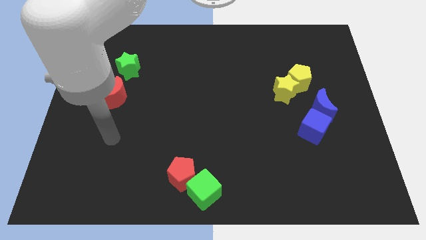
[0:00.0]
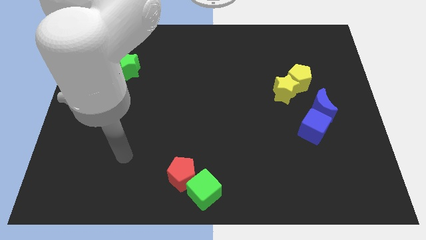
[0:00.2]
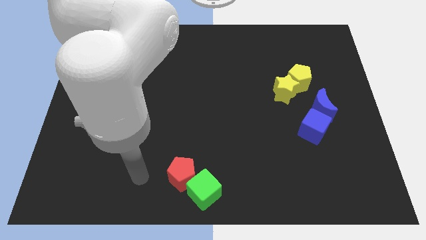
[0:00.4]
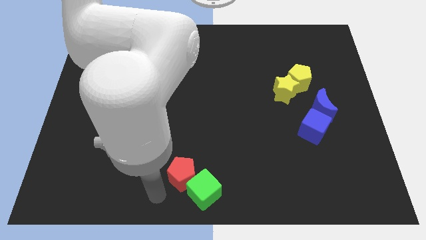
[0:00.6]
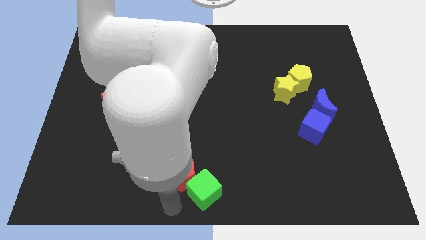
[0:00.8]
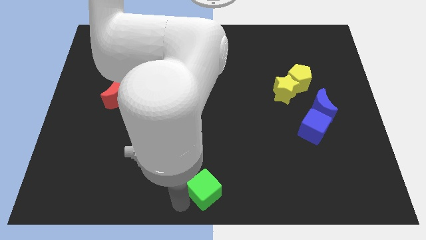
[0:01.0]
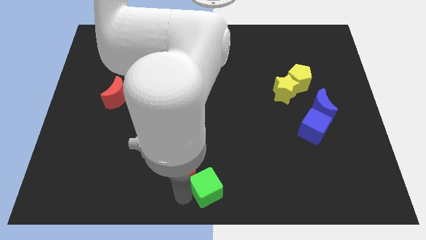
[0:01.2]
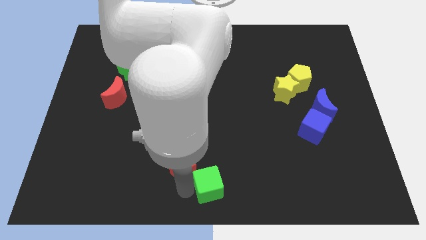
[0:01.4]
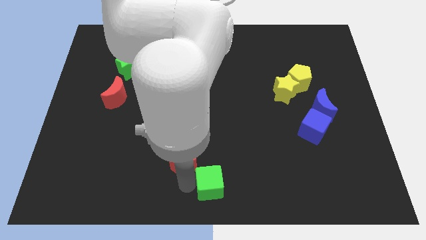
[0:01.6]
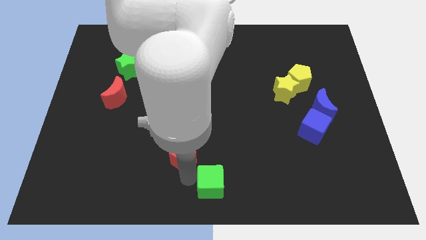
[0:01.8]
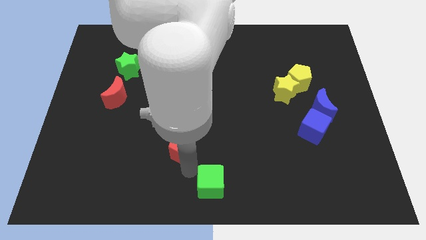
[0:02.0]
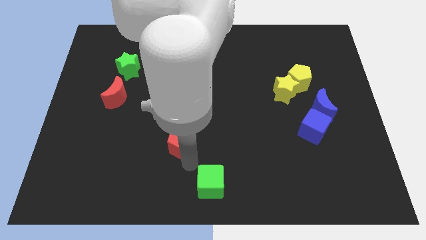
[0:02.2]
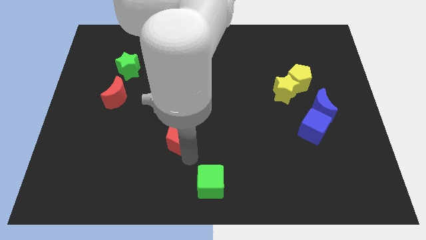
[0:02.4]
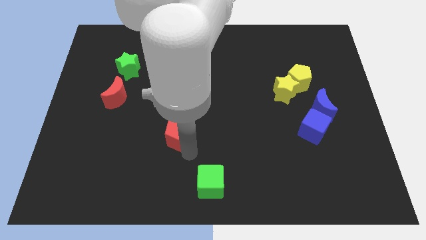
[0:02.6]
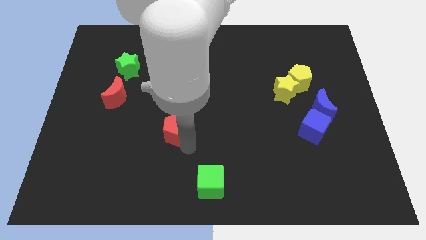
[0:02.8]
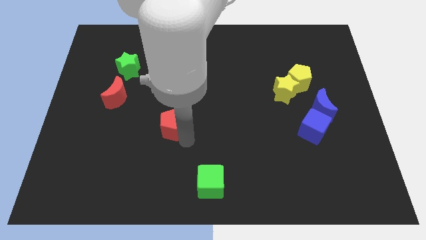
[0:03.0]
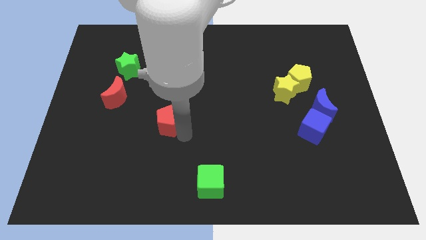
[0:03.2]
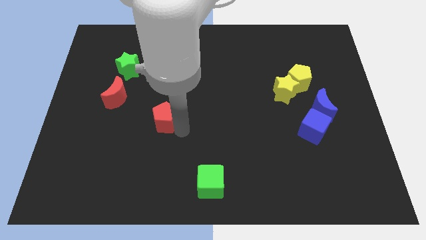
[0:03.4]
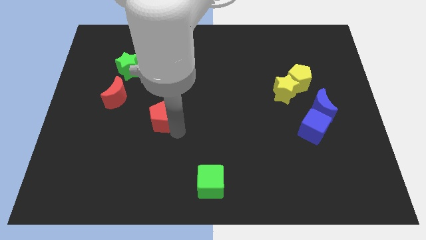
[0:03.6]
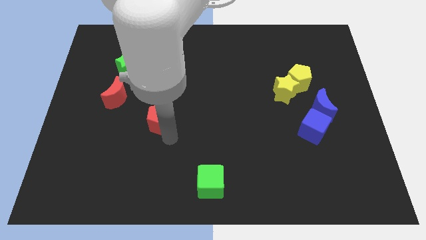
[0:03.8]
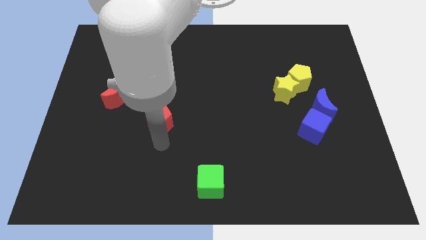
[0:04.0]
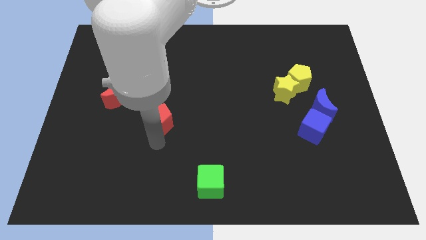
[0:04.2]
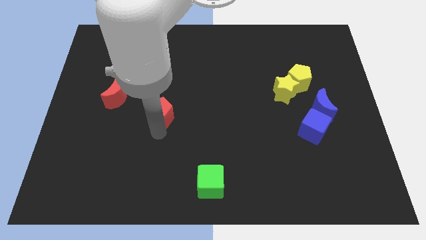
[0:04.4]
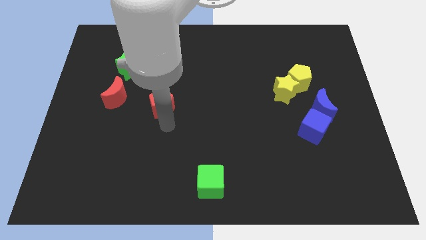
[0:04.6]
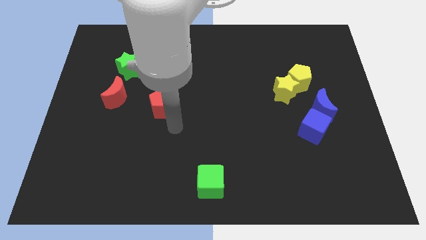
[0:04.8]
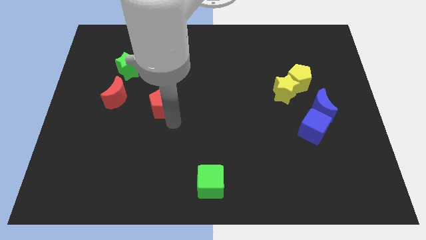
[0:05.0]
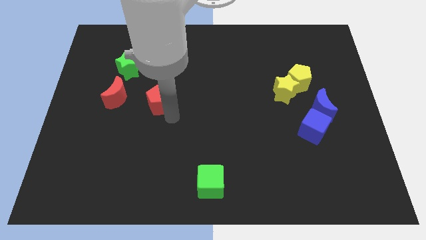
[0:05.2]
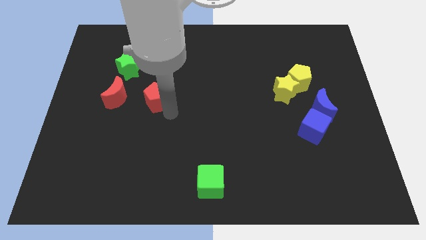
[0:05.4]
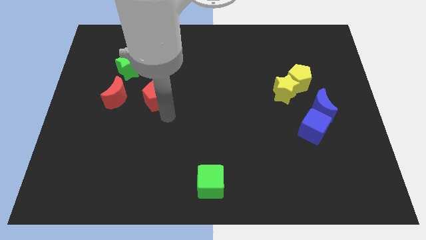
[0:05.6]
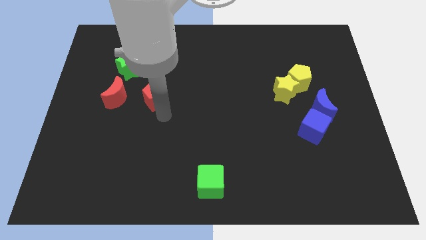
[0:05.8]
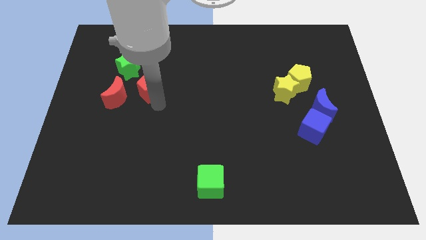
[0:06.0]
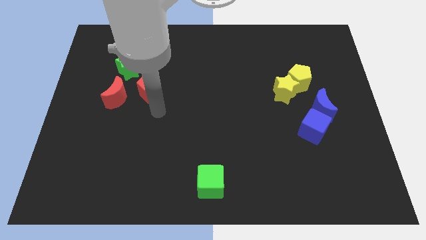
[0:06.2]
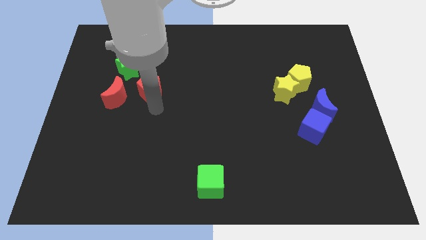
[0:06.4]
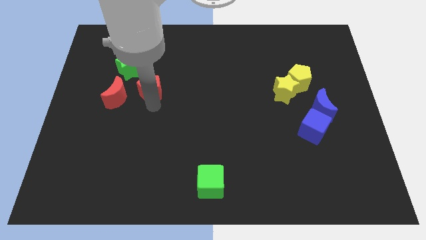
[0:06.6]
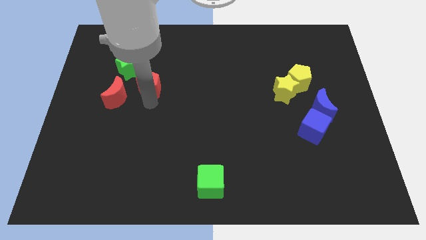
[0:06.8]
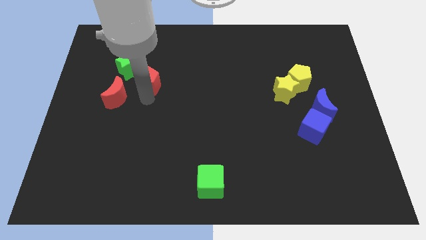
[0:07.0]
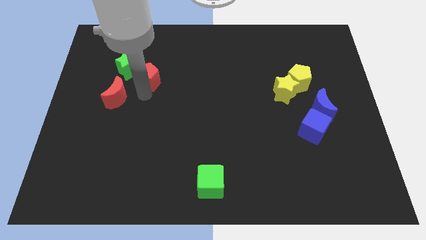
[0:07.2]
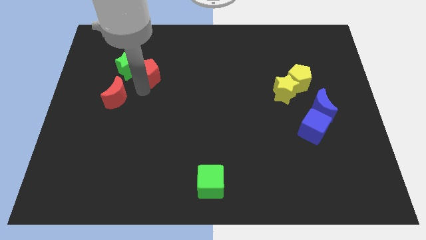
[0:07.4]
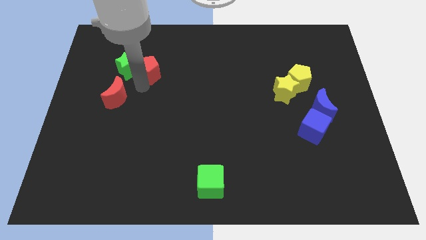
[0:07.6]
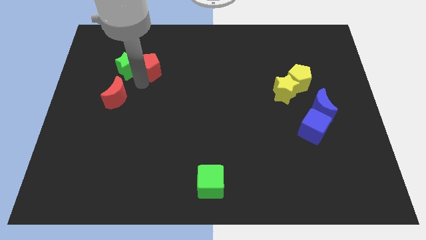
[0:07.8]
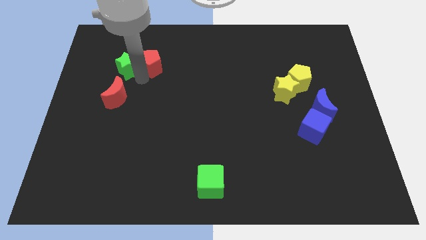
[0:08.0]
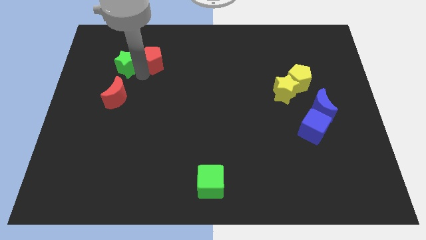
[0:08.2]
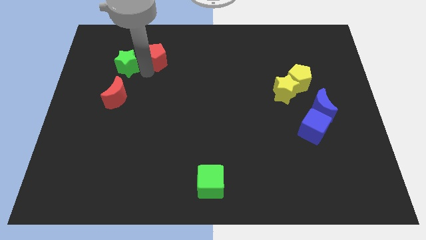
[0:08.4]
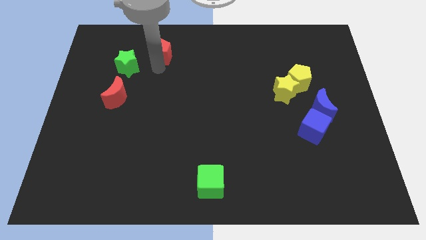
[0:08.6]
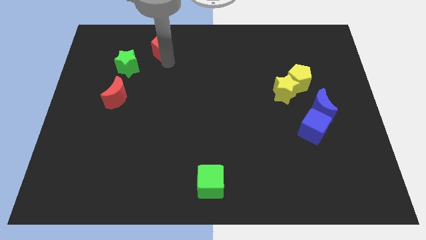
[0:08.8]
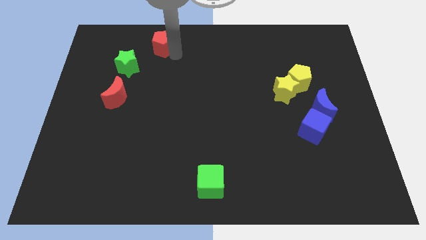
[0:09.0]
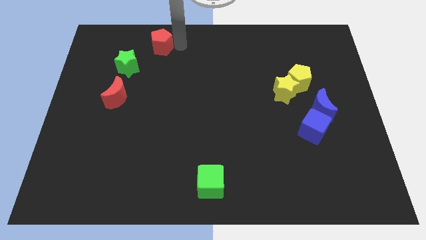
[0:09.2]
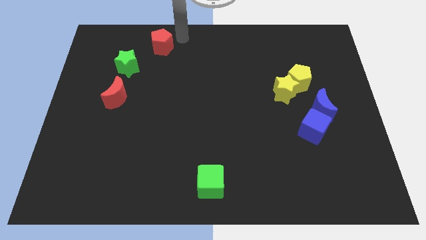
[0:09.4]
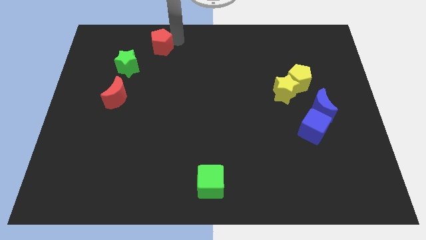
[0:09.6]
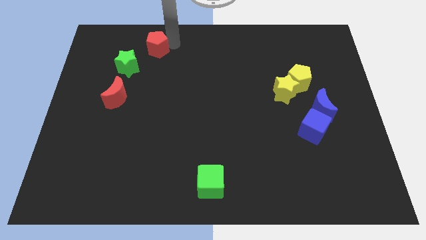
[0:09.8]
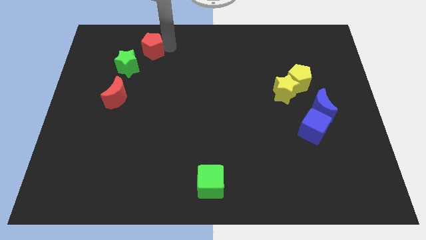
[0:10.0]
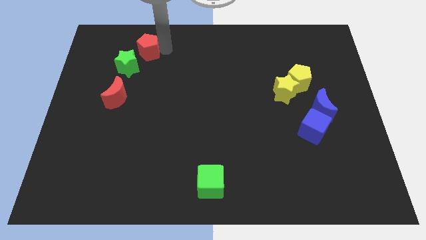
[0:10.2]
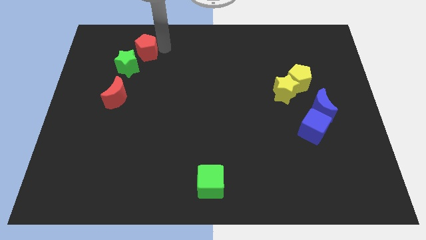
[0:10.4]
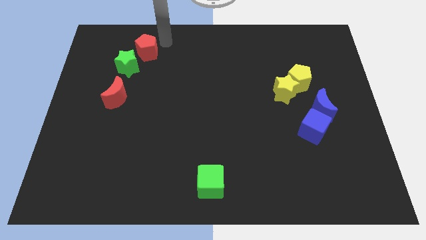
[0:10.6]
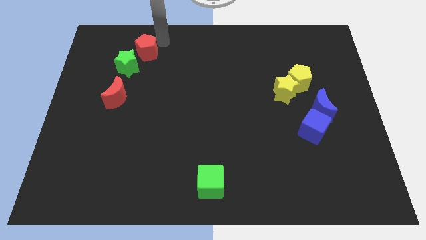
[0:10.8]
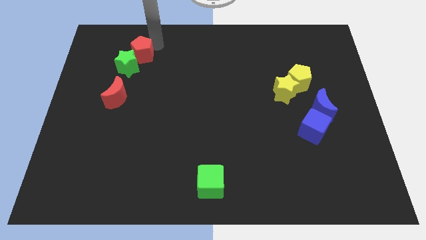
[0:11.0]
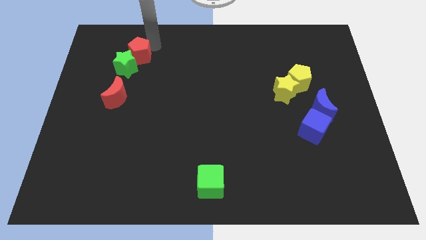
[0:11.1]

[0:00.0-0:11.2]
push the red pentagon to the top of the red moon

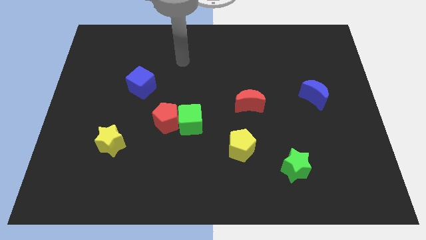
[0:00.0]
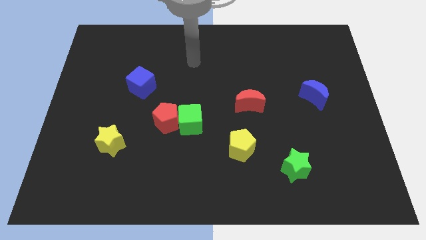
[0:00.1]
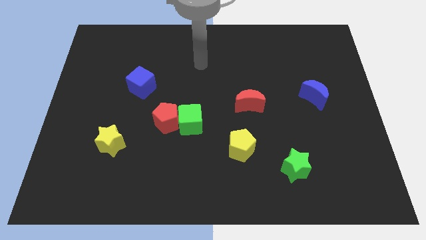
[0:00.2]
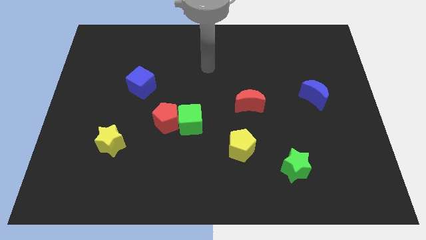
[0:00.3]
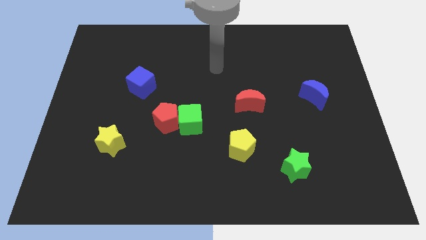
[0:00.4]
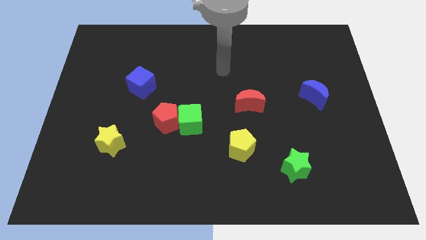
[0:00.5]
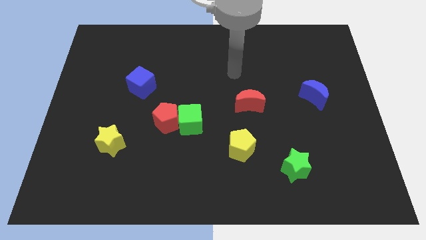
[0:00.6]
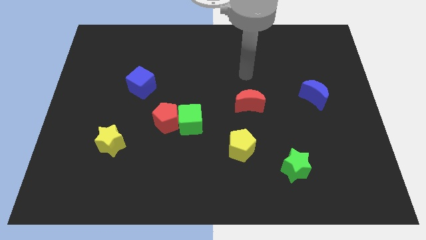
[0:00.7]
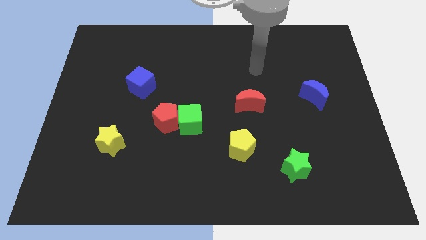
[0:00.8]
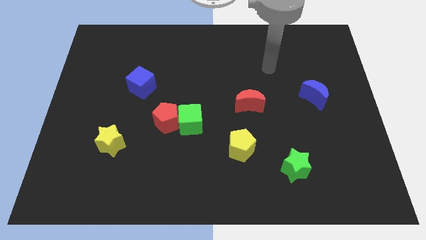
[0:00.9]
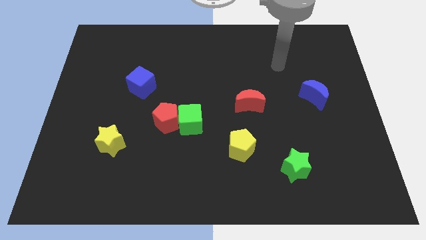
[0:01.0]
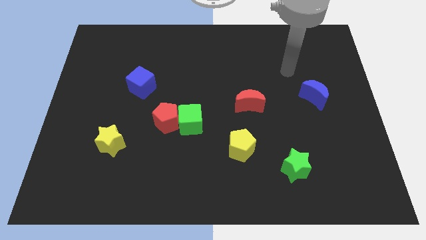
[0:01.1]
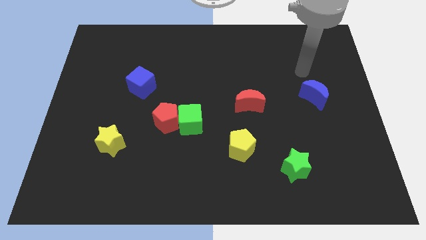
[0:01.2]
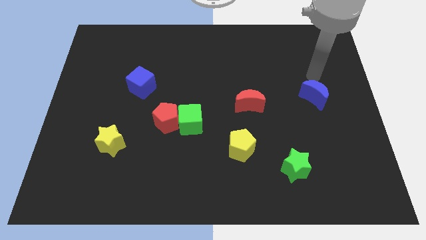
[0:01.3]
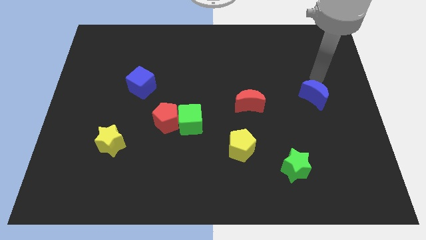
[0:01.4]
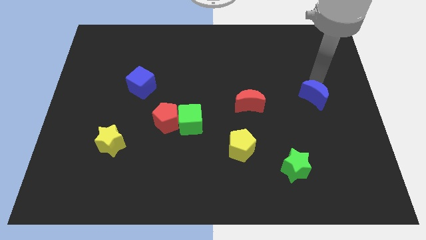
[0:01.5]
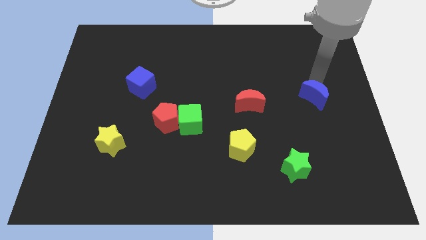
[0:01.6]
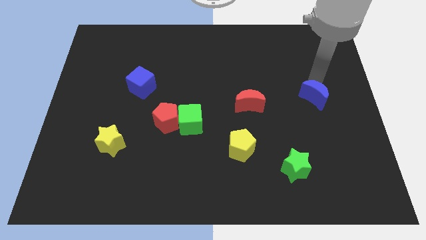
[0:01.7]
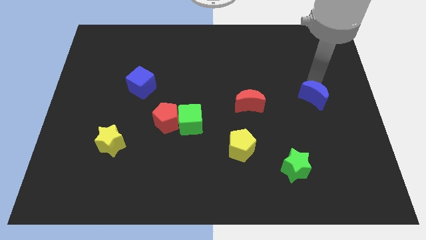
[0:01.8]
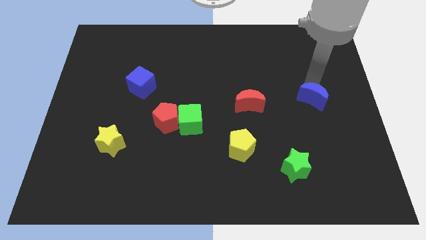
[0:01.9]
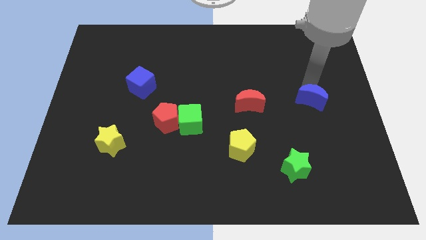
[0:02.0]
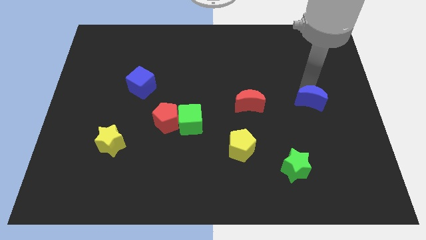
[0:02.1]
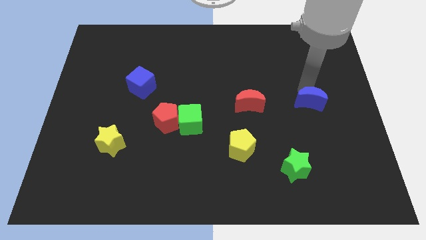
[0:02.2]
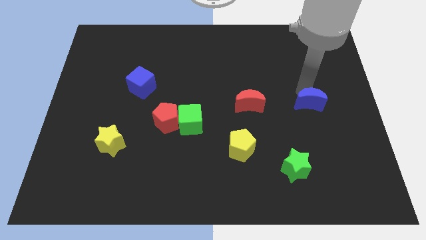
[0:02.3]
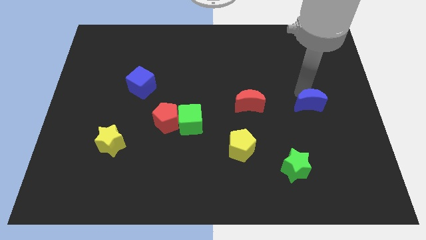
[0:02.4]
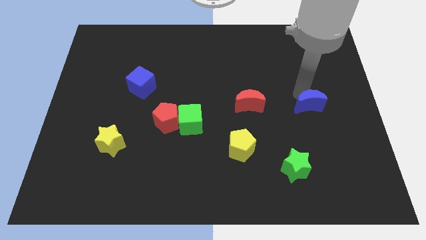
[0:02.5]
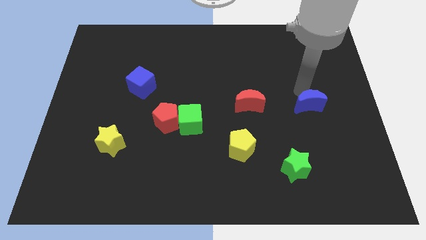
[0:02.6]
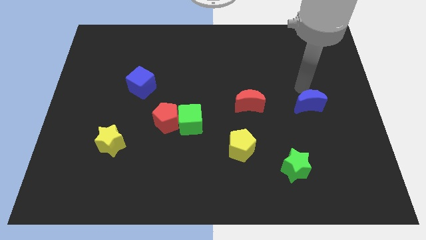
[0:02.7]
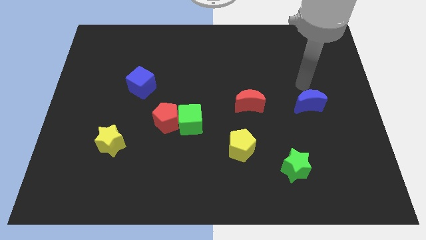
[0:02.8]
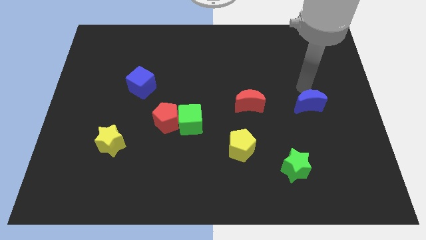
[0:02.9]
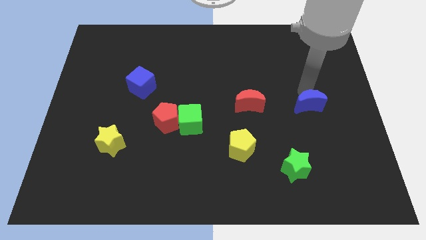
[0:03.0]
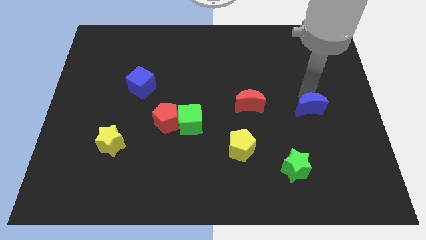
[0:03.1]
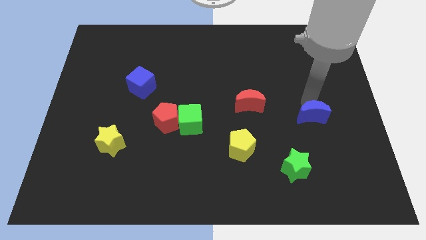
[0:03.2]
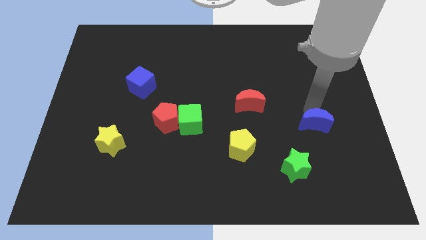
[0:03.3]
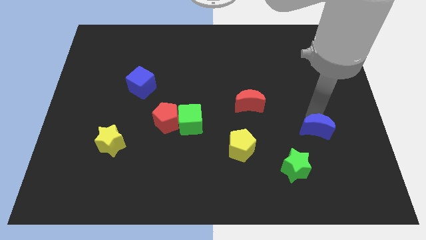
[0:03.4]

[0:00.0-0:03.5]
move the blue moon to the top right of the green star
